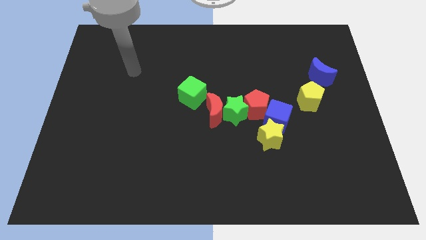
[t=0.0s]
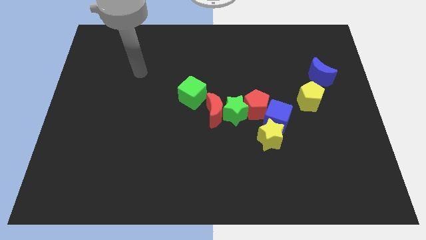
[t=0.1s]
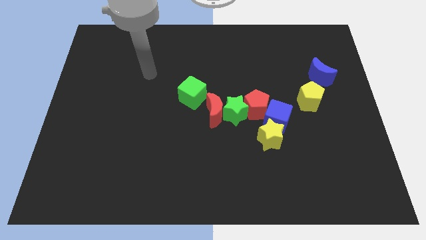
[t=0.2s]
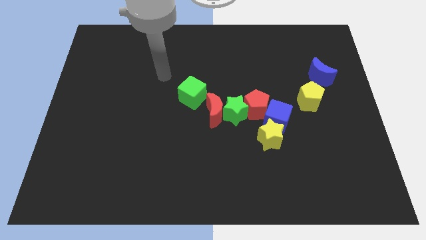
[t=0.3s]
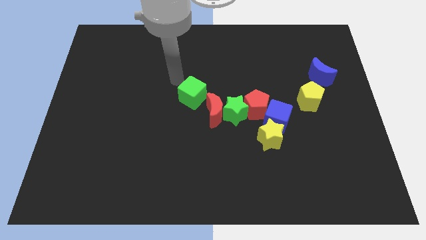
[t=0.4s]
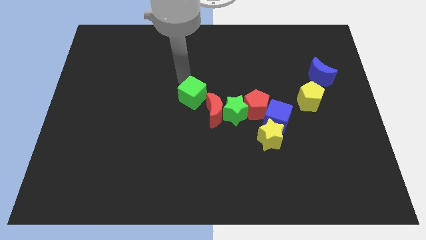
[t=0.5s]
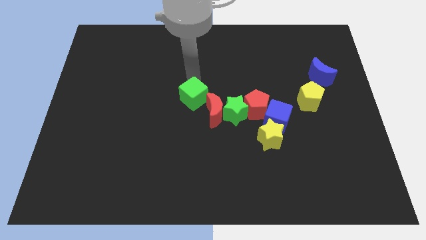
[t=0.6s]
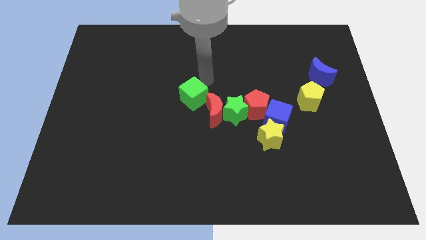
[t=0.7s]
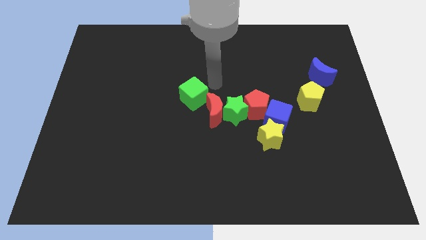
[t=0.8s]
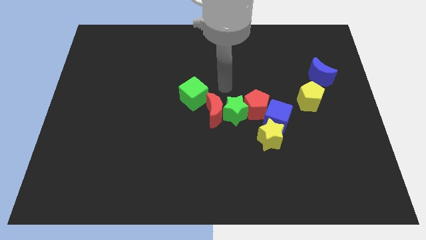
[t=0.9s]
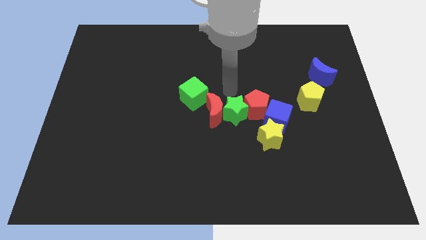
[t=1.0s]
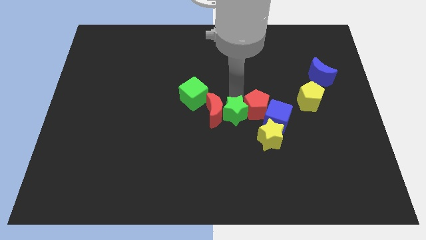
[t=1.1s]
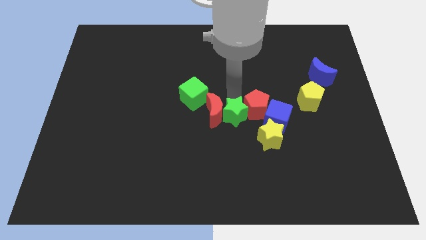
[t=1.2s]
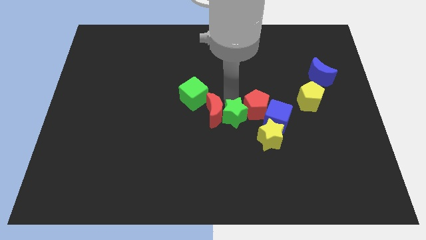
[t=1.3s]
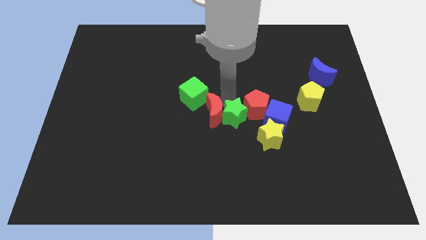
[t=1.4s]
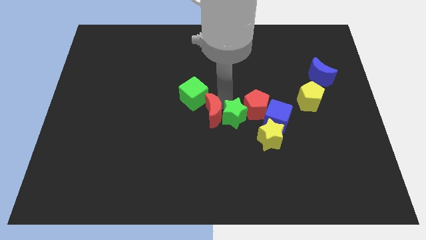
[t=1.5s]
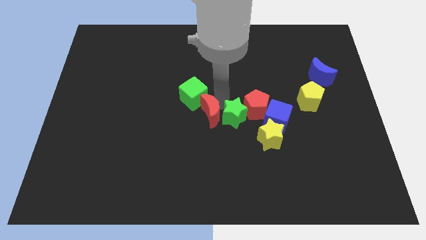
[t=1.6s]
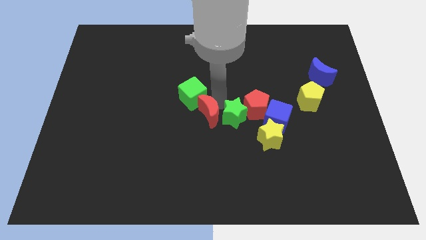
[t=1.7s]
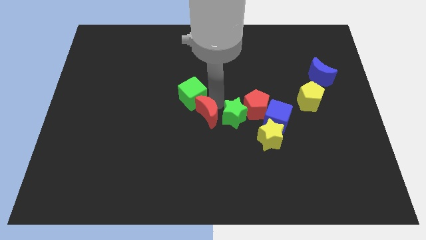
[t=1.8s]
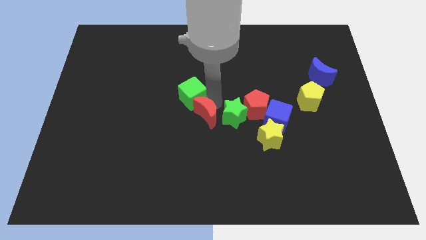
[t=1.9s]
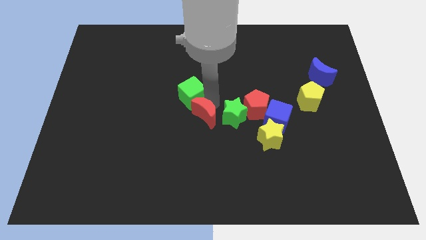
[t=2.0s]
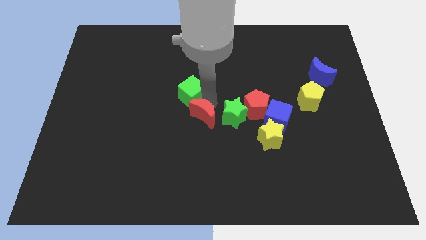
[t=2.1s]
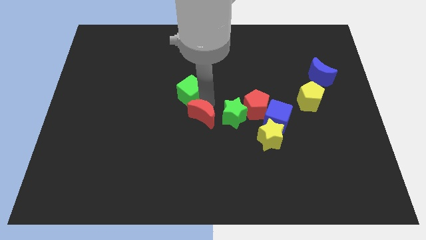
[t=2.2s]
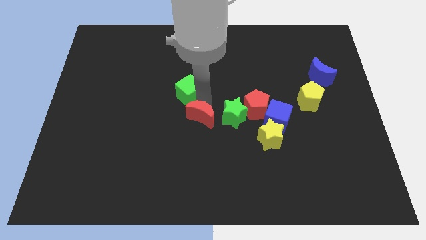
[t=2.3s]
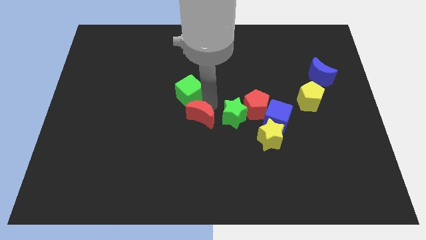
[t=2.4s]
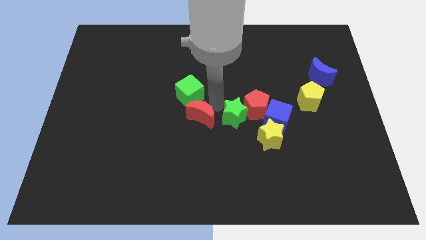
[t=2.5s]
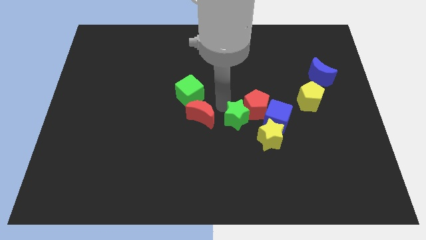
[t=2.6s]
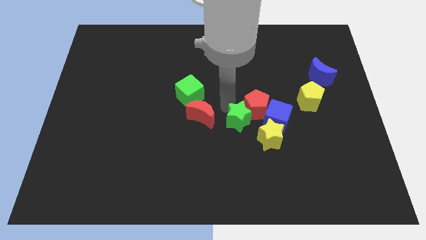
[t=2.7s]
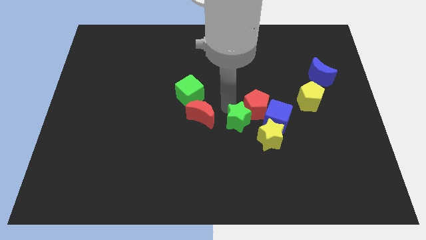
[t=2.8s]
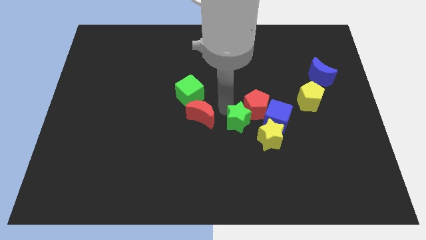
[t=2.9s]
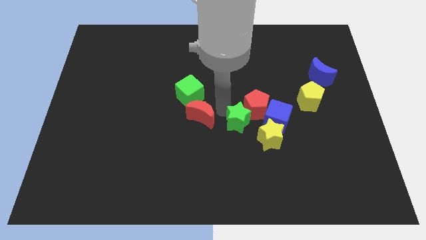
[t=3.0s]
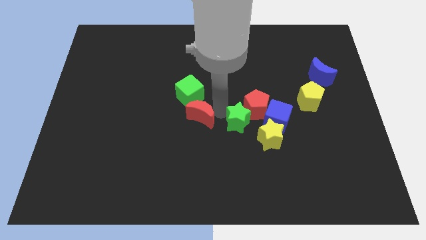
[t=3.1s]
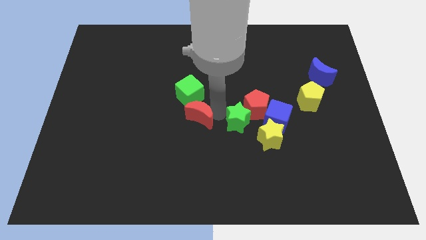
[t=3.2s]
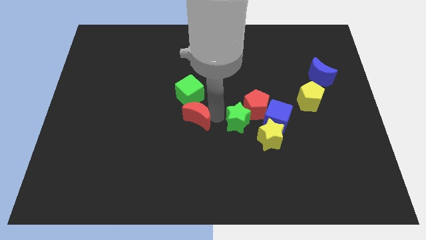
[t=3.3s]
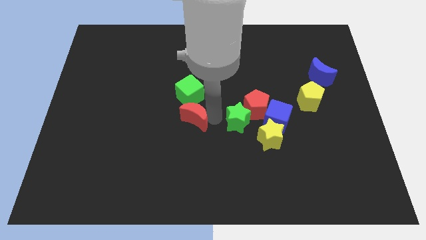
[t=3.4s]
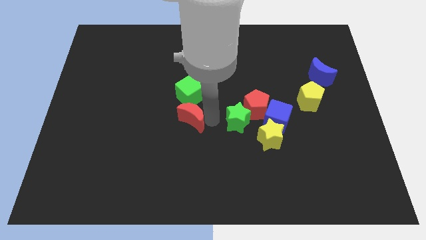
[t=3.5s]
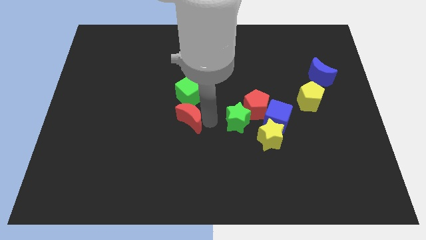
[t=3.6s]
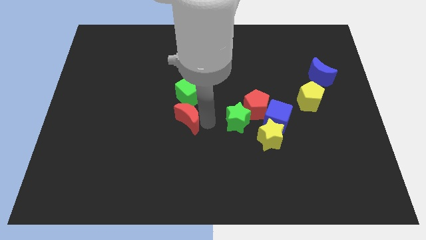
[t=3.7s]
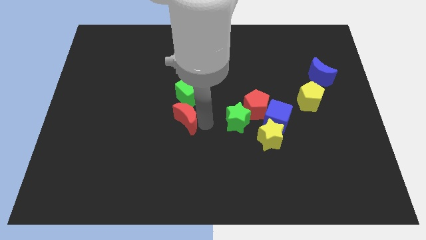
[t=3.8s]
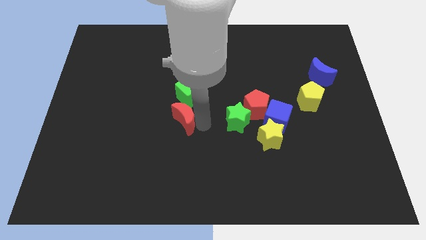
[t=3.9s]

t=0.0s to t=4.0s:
pull the red moon apart from the green star, green cube, and red pentagon

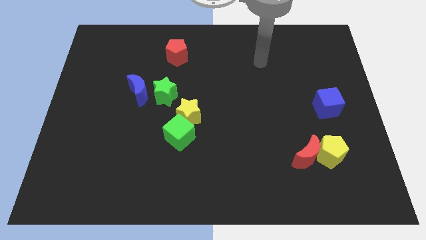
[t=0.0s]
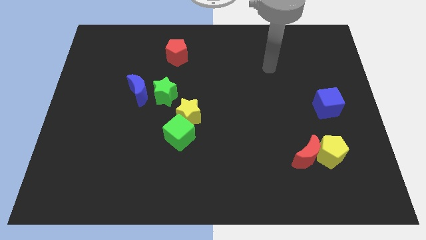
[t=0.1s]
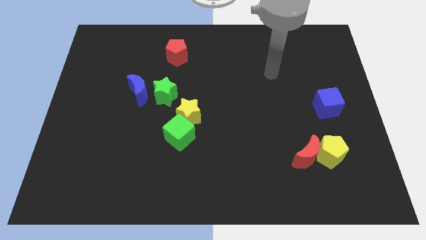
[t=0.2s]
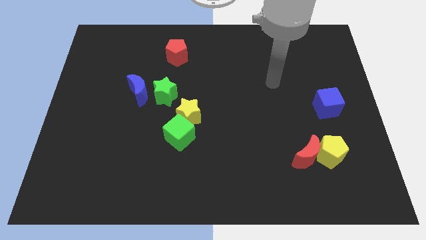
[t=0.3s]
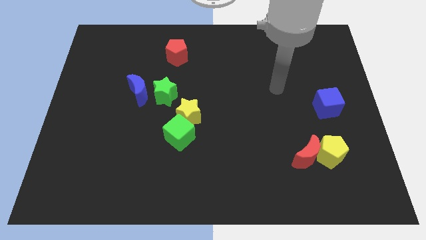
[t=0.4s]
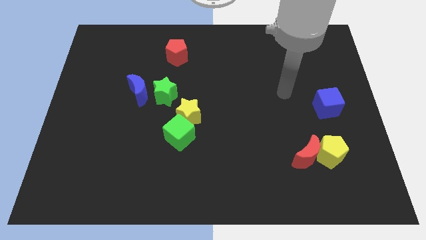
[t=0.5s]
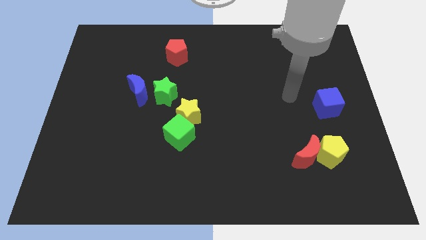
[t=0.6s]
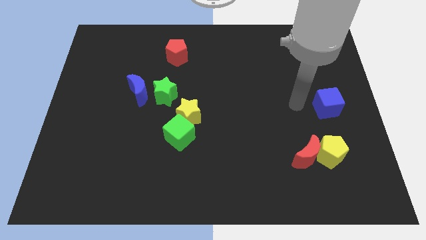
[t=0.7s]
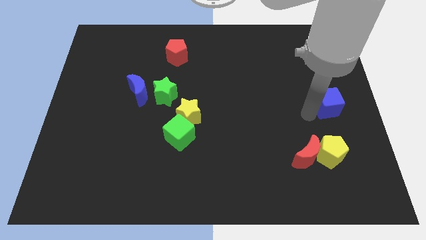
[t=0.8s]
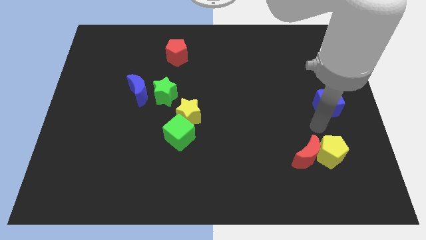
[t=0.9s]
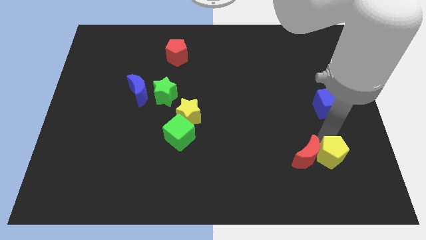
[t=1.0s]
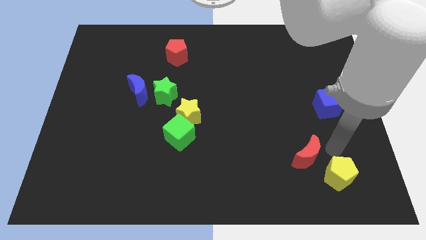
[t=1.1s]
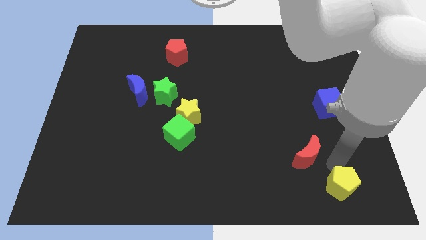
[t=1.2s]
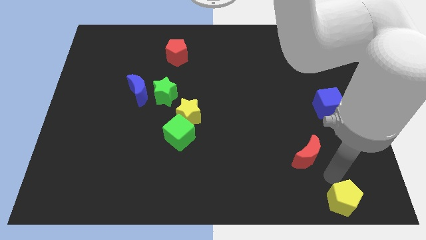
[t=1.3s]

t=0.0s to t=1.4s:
separate the red moon from the yellow pentagon

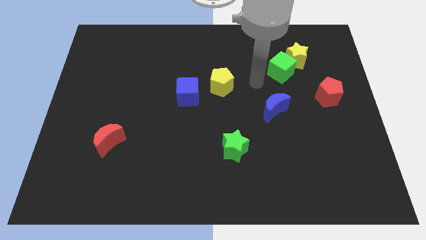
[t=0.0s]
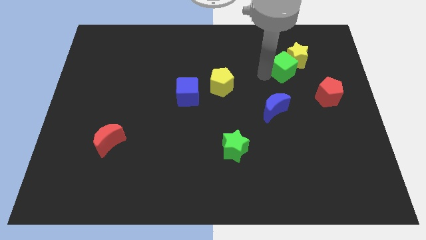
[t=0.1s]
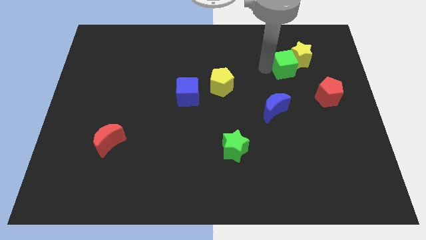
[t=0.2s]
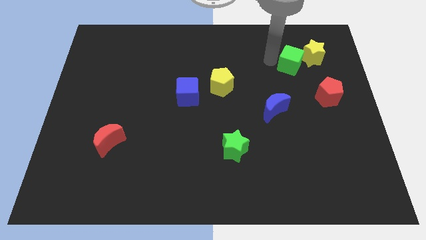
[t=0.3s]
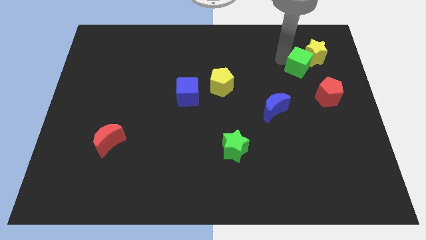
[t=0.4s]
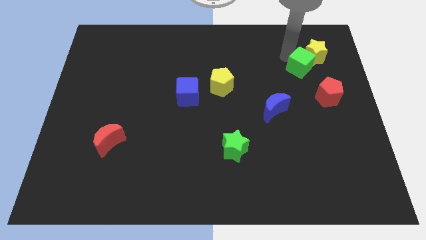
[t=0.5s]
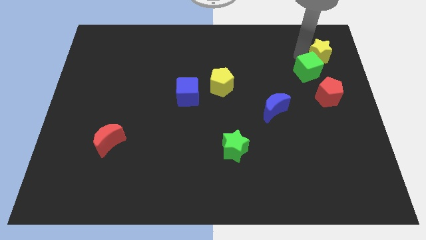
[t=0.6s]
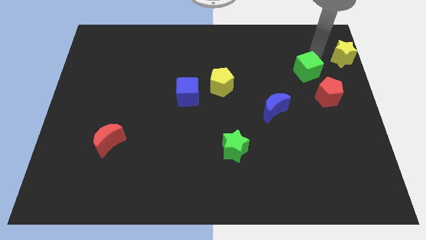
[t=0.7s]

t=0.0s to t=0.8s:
pull the green cube apart from the yellow star

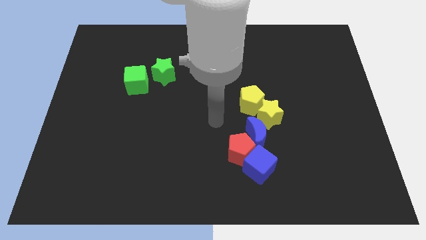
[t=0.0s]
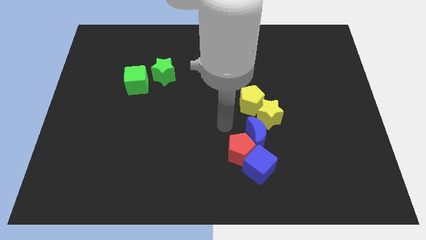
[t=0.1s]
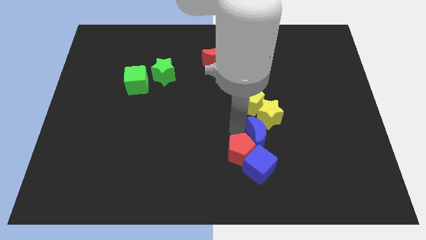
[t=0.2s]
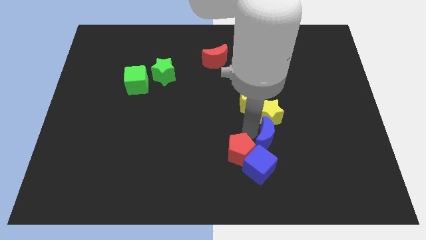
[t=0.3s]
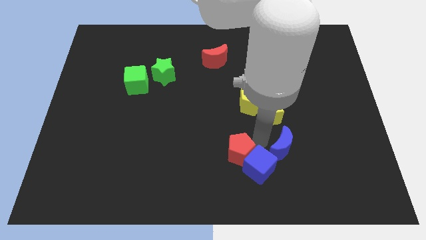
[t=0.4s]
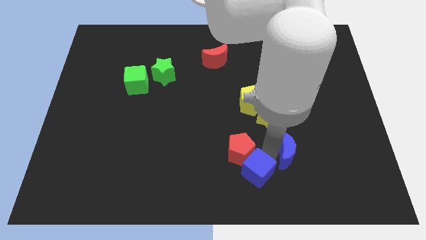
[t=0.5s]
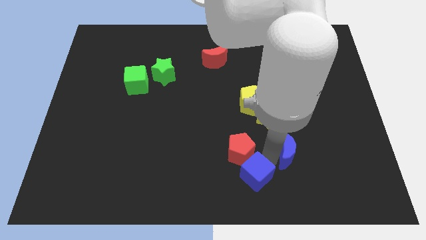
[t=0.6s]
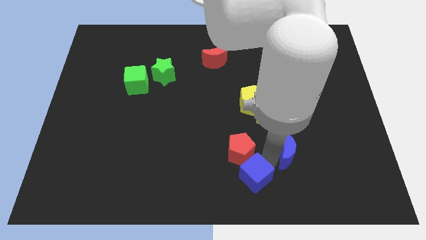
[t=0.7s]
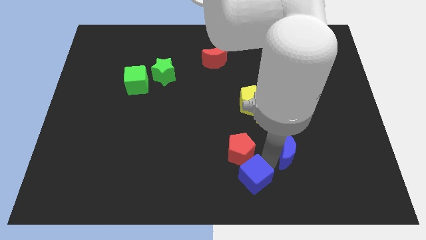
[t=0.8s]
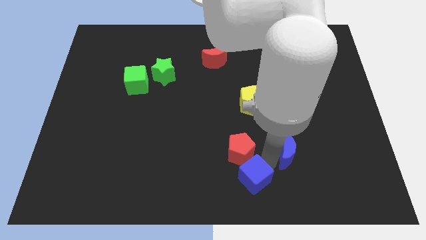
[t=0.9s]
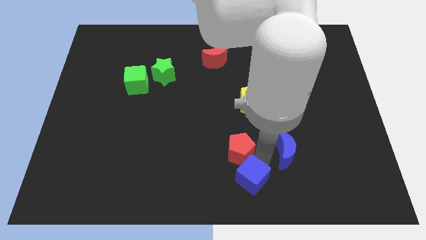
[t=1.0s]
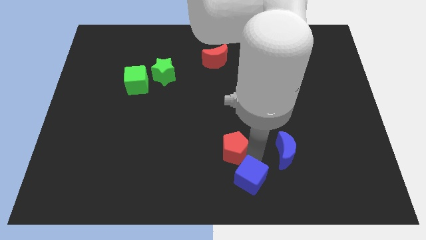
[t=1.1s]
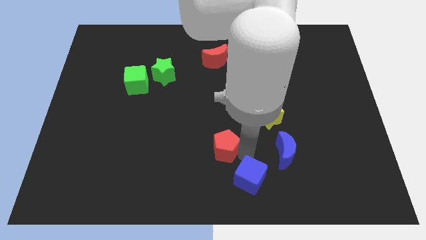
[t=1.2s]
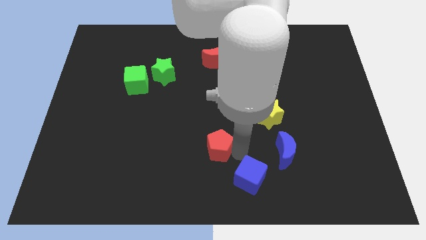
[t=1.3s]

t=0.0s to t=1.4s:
move the red pentagon away from the blue cube and blue moon

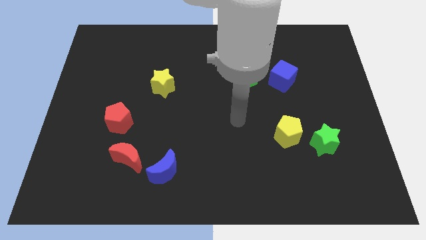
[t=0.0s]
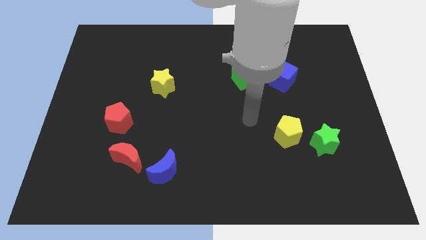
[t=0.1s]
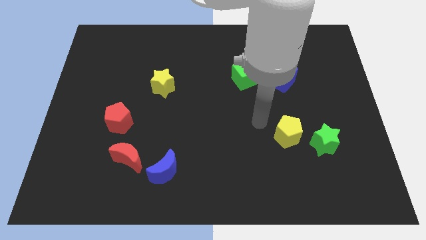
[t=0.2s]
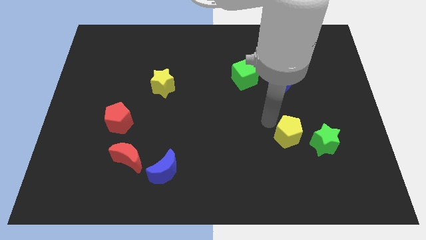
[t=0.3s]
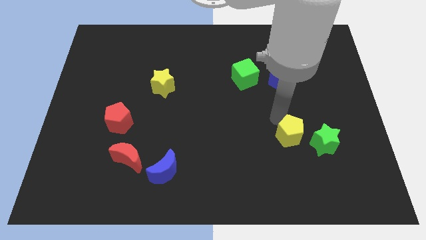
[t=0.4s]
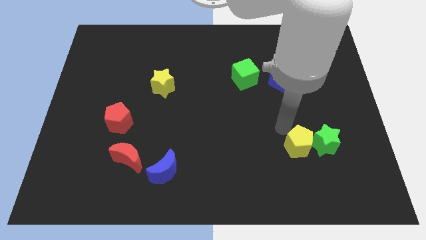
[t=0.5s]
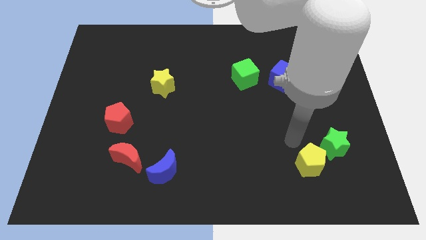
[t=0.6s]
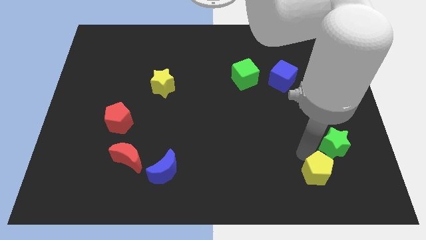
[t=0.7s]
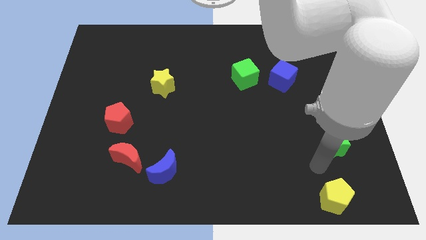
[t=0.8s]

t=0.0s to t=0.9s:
separate the green star from the yellow pentagon

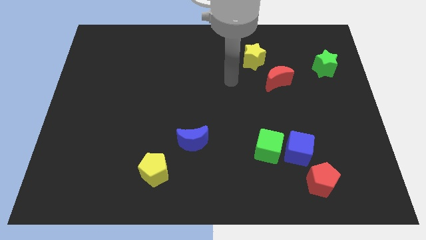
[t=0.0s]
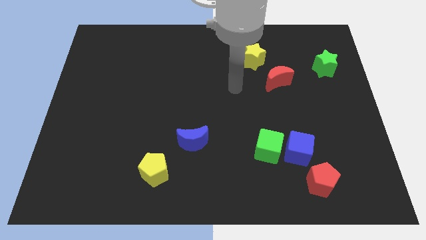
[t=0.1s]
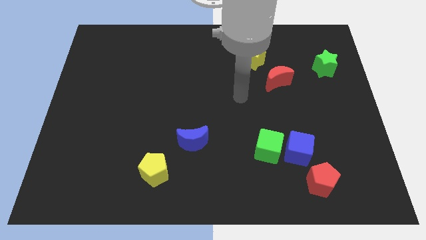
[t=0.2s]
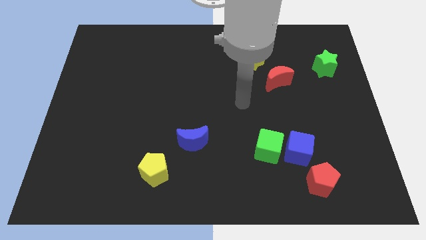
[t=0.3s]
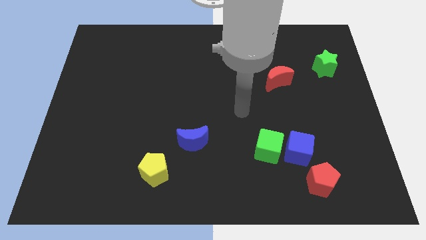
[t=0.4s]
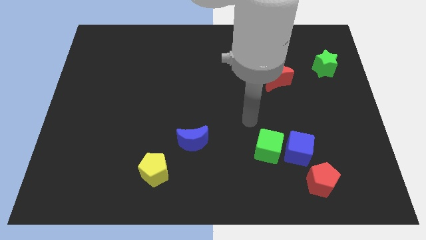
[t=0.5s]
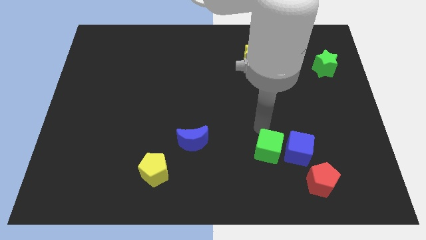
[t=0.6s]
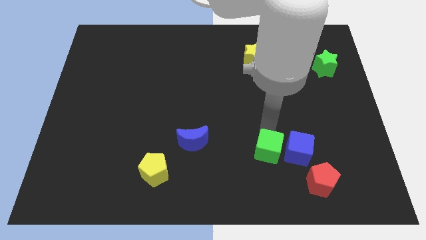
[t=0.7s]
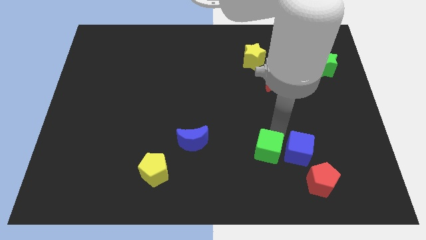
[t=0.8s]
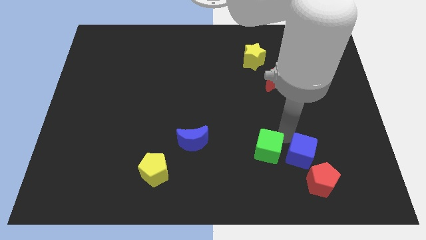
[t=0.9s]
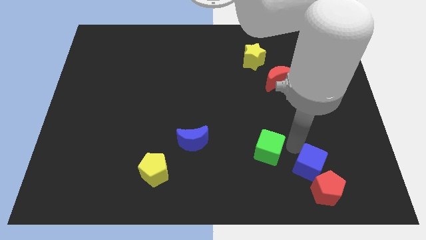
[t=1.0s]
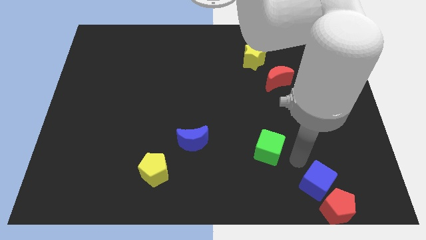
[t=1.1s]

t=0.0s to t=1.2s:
separate the green cube from the blue cube
